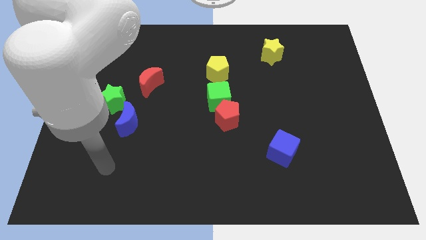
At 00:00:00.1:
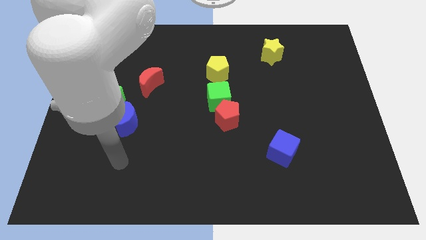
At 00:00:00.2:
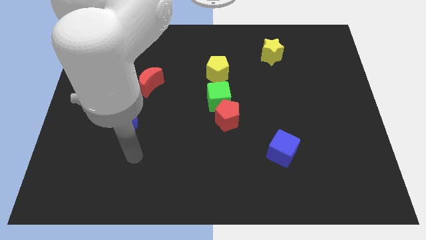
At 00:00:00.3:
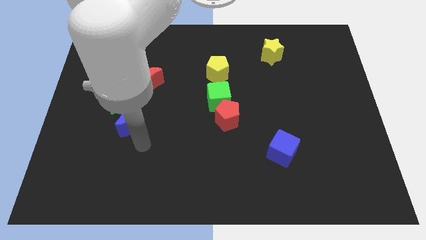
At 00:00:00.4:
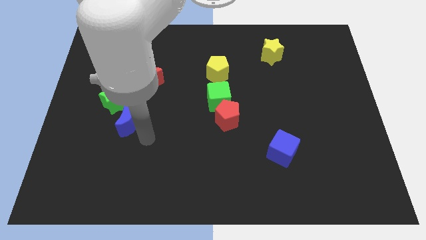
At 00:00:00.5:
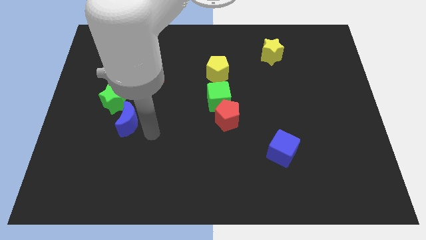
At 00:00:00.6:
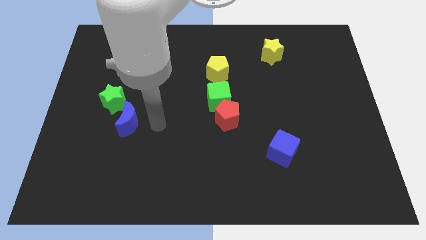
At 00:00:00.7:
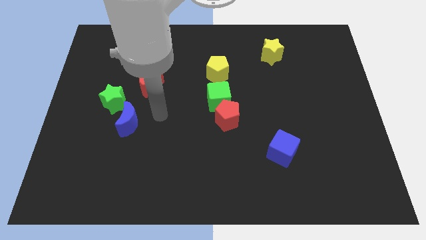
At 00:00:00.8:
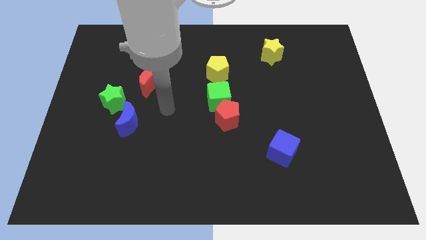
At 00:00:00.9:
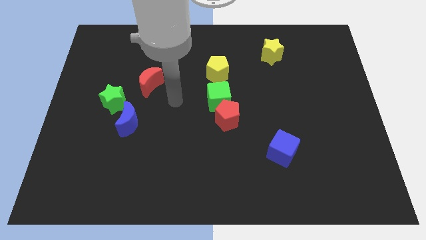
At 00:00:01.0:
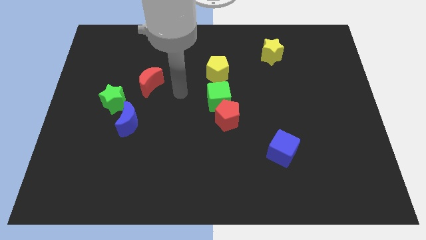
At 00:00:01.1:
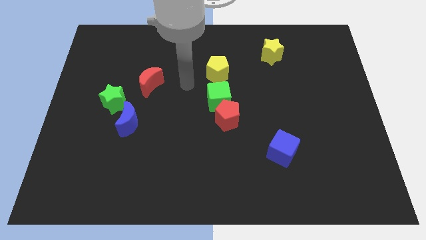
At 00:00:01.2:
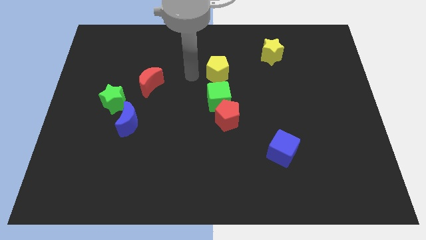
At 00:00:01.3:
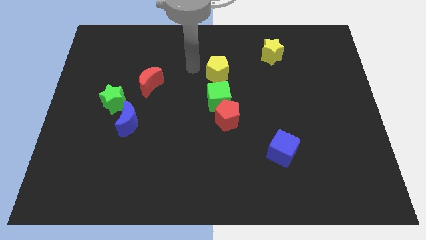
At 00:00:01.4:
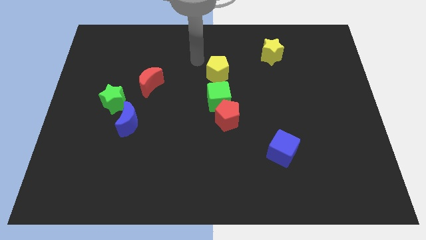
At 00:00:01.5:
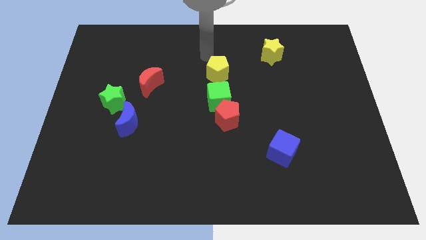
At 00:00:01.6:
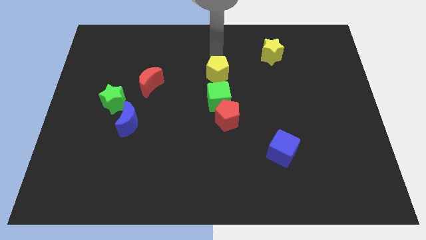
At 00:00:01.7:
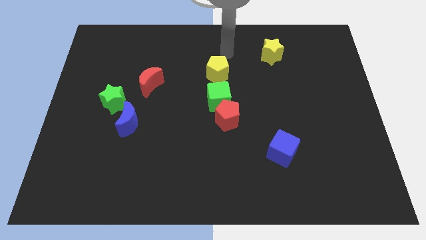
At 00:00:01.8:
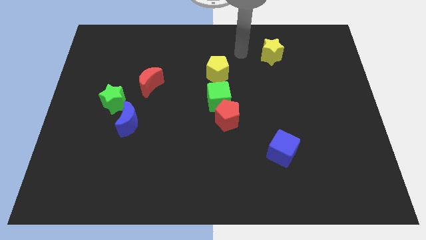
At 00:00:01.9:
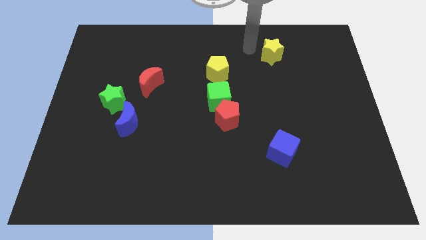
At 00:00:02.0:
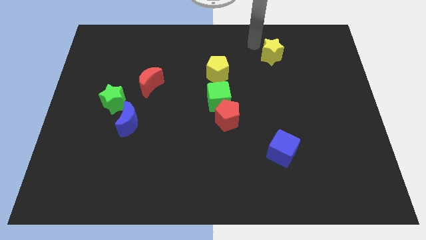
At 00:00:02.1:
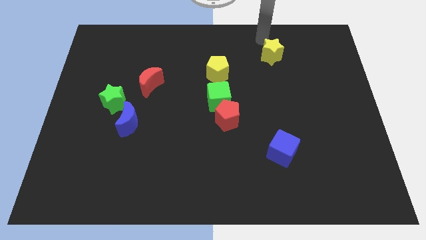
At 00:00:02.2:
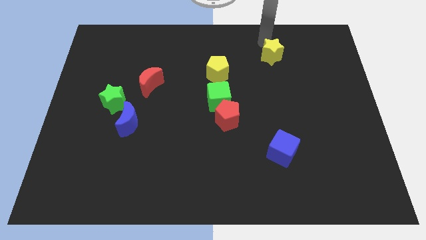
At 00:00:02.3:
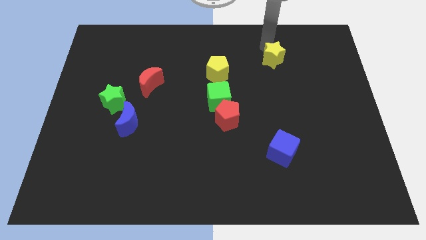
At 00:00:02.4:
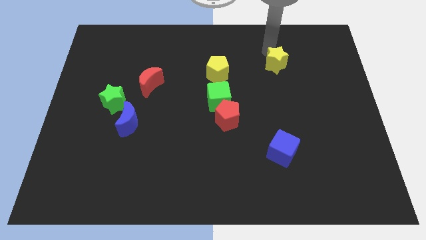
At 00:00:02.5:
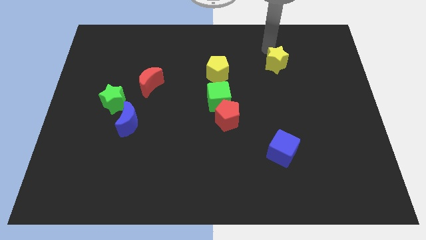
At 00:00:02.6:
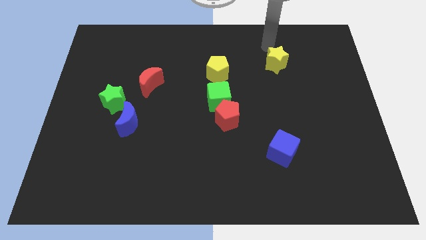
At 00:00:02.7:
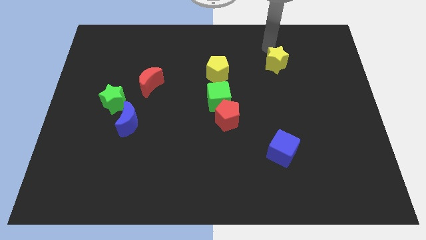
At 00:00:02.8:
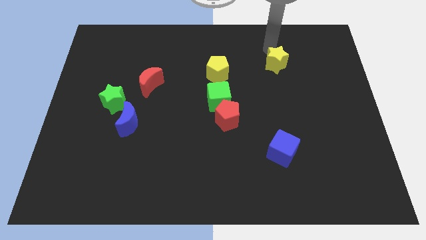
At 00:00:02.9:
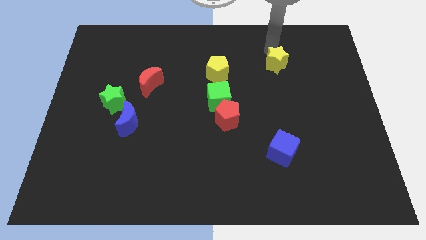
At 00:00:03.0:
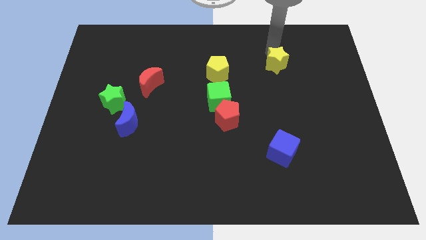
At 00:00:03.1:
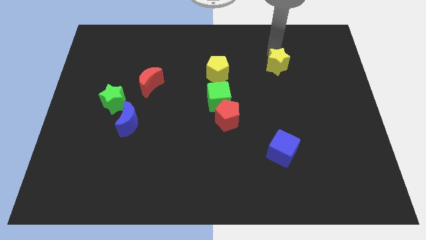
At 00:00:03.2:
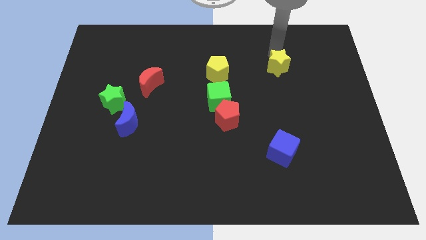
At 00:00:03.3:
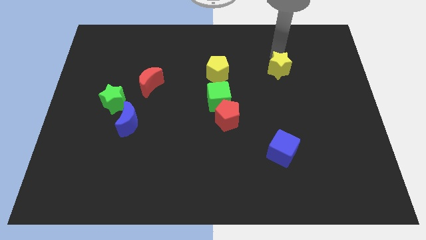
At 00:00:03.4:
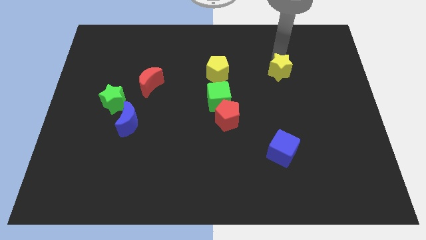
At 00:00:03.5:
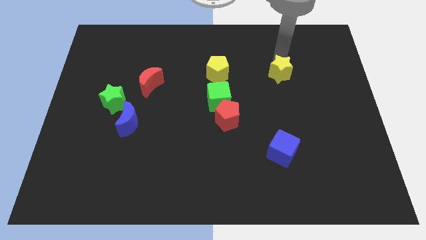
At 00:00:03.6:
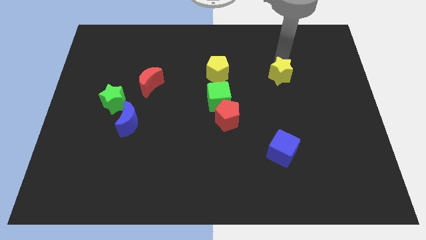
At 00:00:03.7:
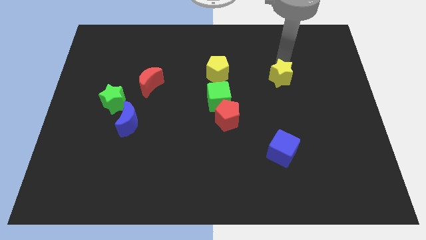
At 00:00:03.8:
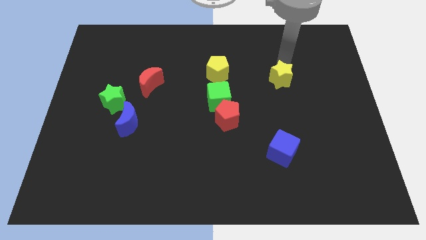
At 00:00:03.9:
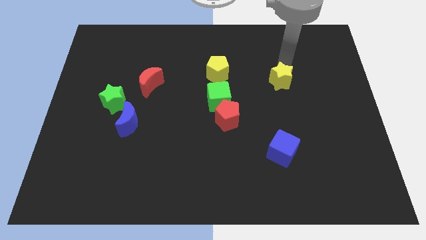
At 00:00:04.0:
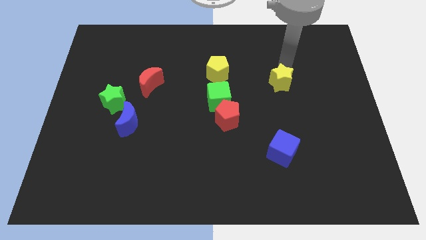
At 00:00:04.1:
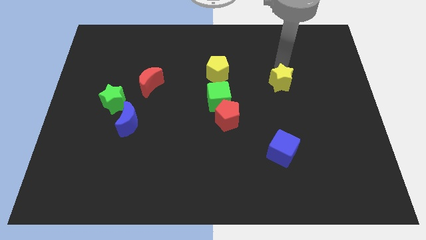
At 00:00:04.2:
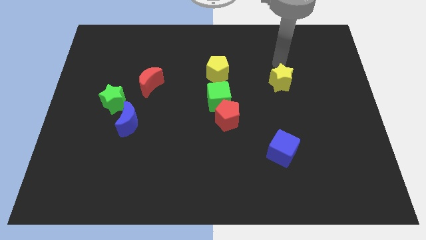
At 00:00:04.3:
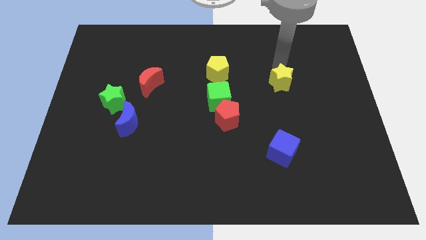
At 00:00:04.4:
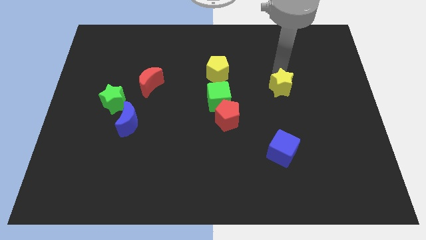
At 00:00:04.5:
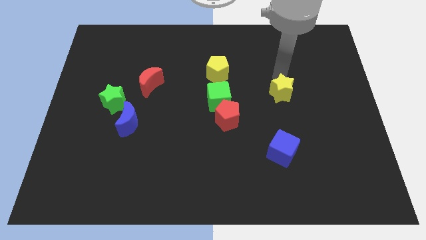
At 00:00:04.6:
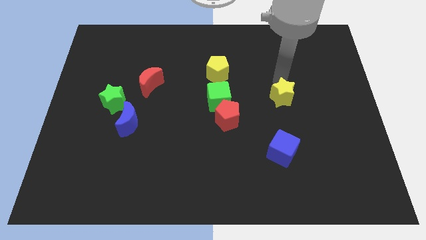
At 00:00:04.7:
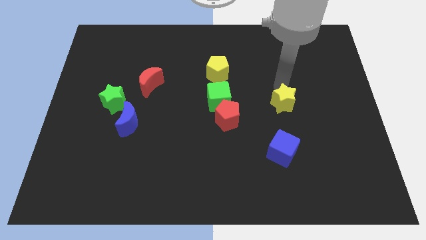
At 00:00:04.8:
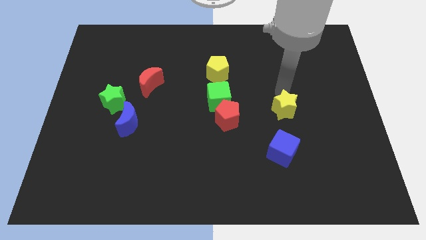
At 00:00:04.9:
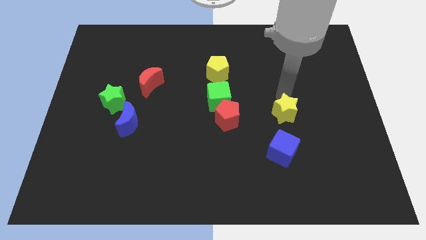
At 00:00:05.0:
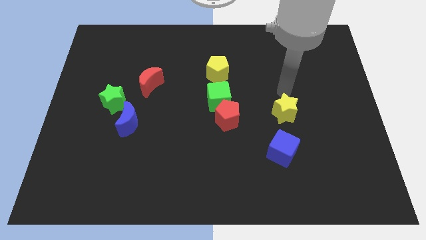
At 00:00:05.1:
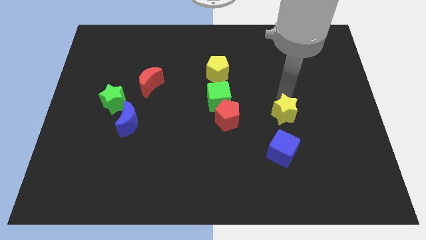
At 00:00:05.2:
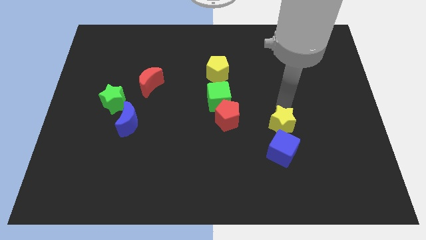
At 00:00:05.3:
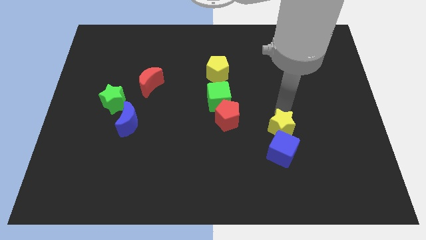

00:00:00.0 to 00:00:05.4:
push the yellow star towards the blue cube

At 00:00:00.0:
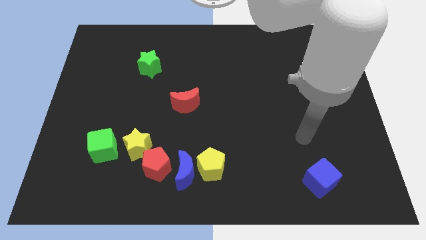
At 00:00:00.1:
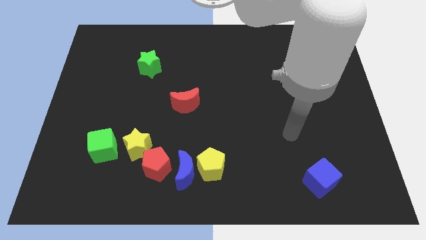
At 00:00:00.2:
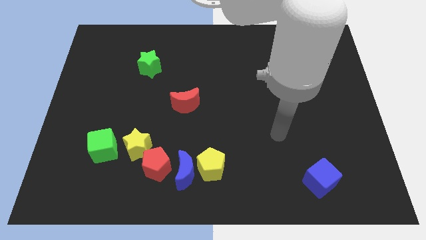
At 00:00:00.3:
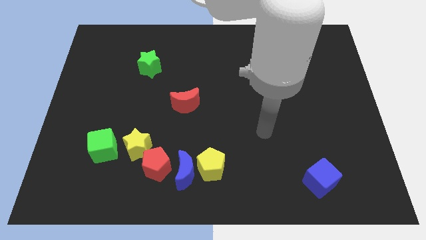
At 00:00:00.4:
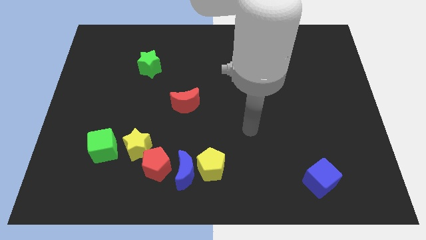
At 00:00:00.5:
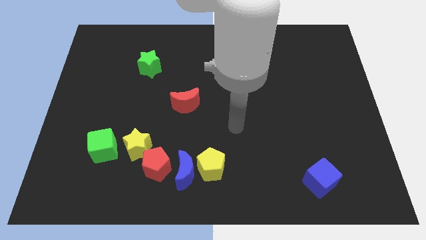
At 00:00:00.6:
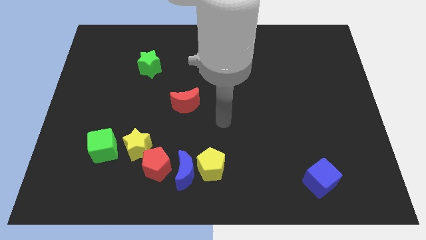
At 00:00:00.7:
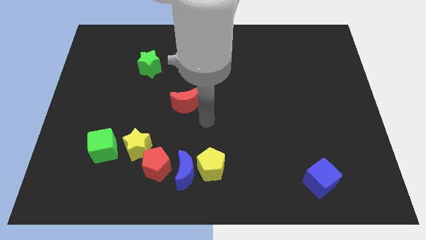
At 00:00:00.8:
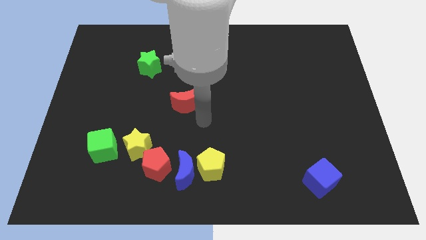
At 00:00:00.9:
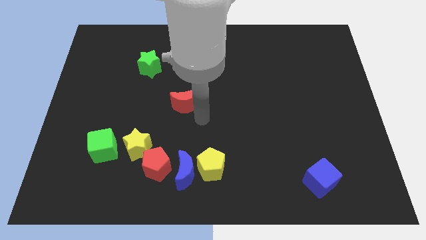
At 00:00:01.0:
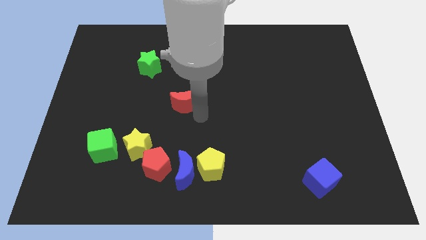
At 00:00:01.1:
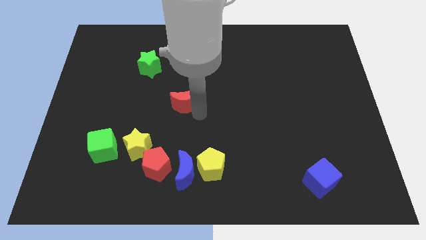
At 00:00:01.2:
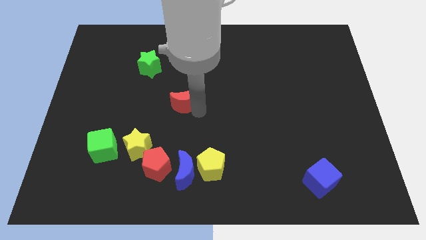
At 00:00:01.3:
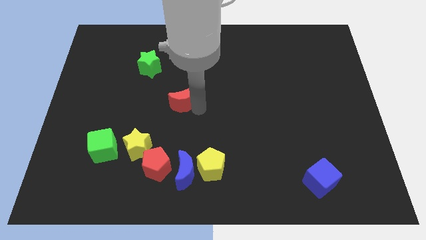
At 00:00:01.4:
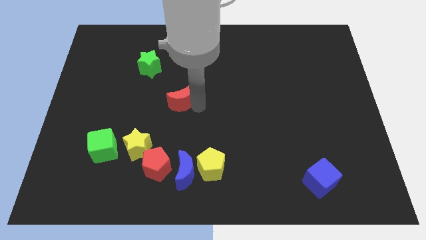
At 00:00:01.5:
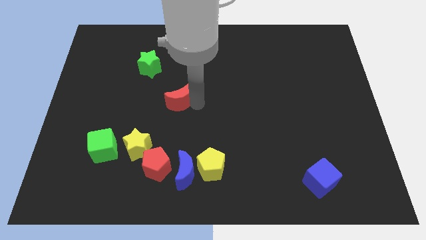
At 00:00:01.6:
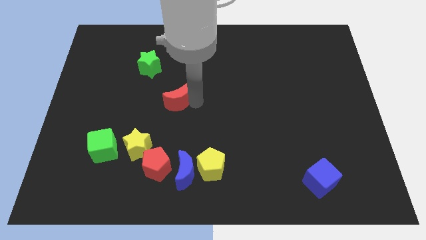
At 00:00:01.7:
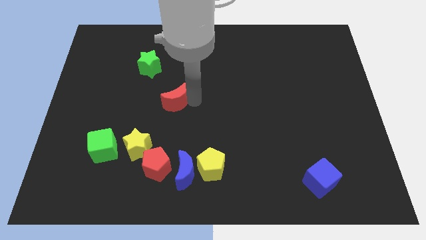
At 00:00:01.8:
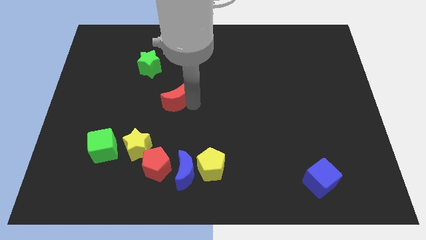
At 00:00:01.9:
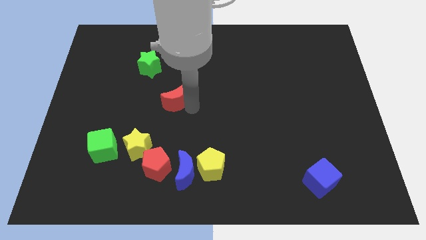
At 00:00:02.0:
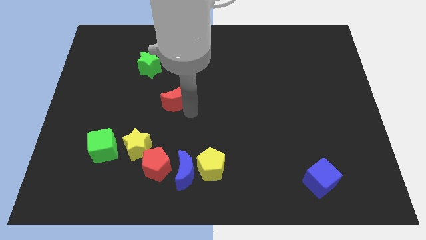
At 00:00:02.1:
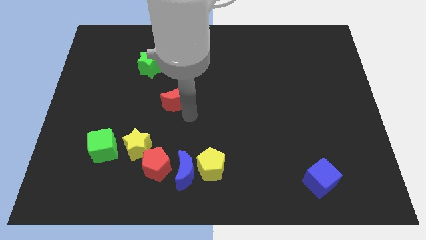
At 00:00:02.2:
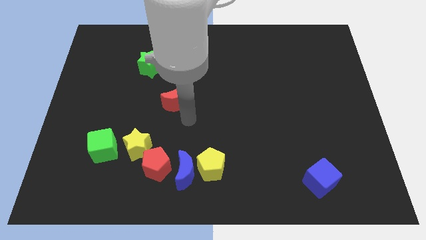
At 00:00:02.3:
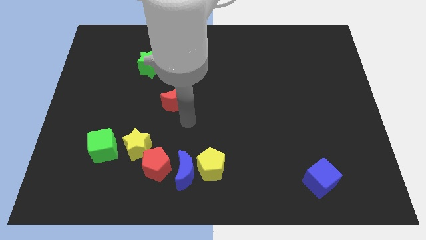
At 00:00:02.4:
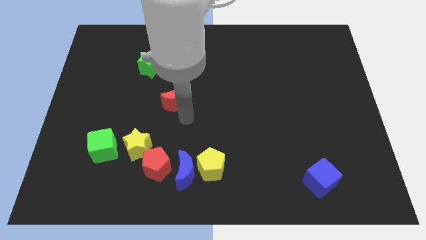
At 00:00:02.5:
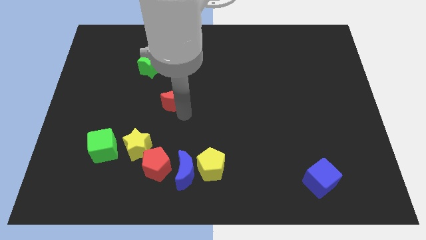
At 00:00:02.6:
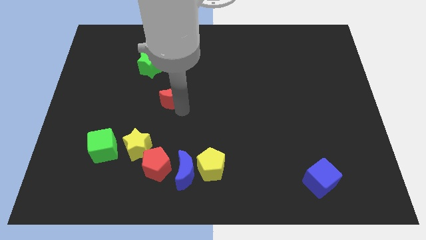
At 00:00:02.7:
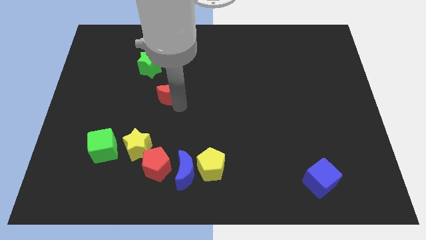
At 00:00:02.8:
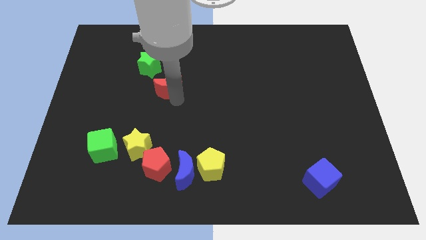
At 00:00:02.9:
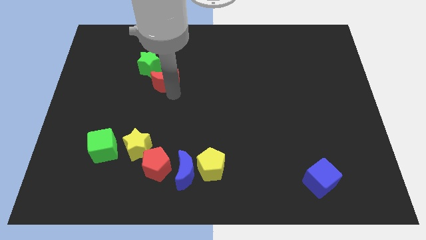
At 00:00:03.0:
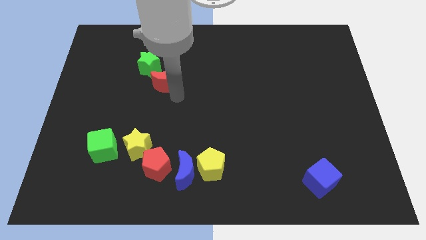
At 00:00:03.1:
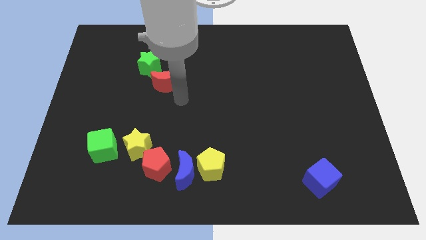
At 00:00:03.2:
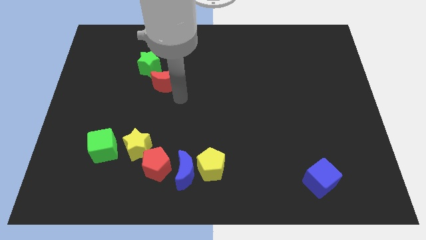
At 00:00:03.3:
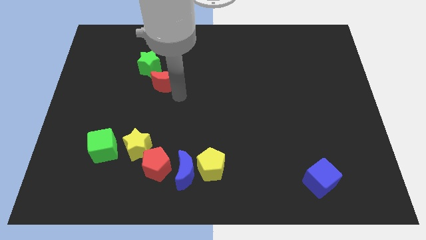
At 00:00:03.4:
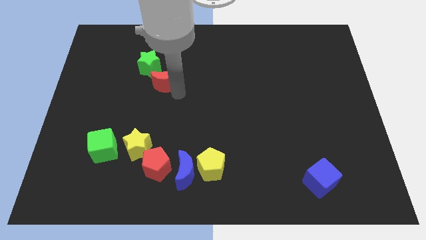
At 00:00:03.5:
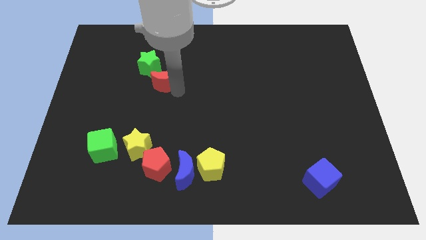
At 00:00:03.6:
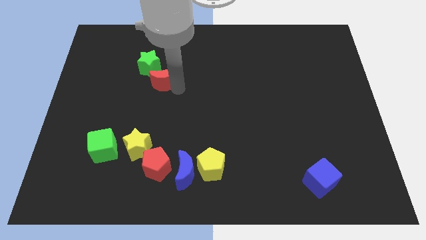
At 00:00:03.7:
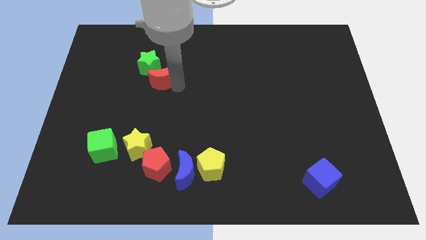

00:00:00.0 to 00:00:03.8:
put the red moon close to the green star
